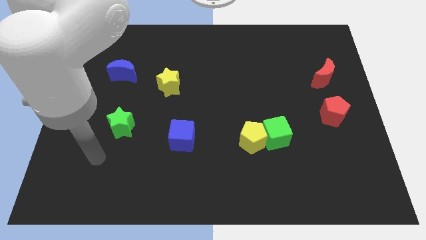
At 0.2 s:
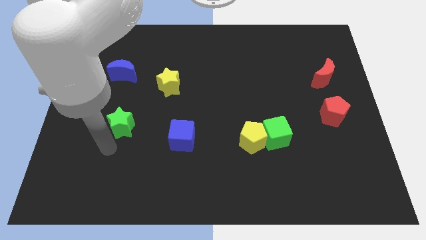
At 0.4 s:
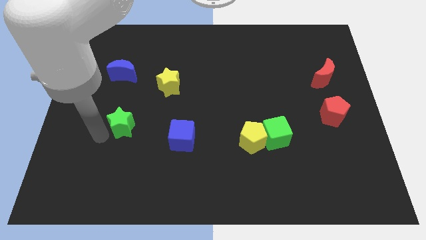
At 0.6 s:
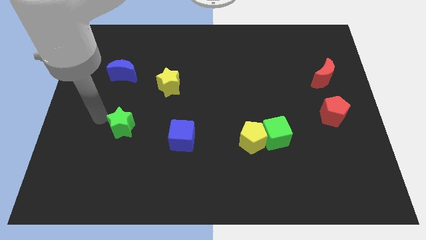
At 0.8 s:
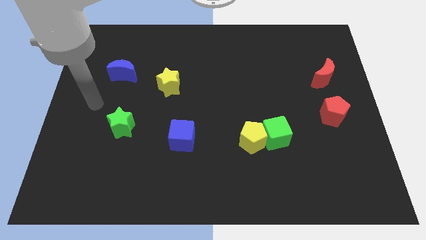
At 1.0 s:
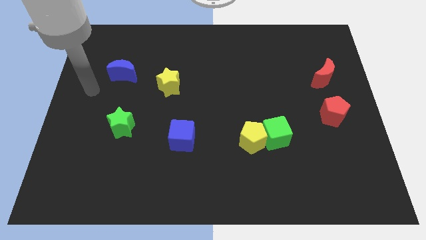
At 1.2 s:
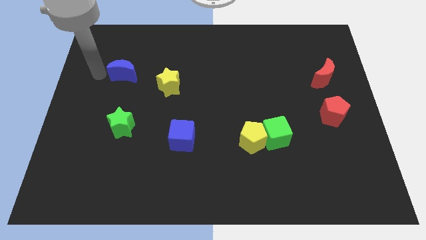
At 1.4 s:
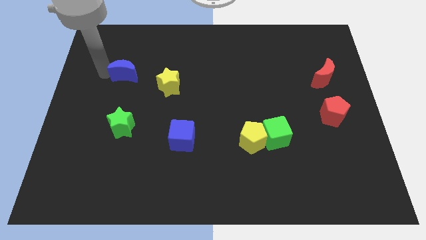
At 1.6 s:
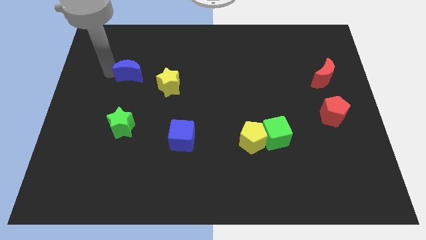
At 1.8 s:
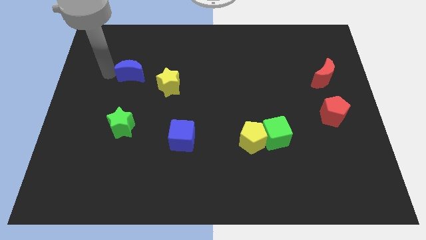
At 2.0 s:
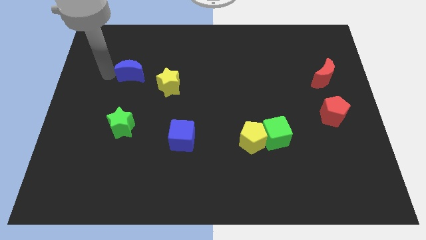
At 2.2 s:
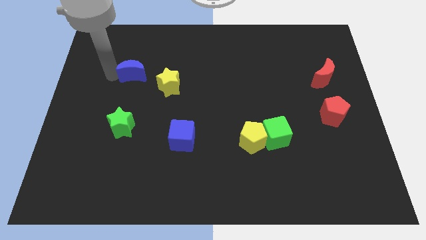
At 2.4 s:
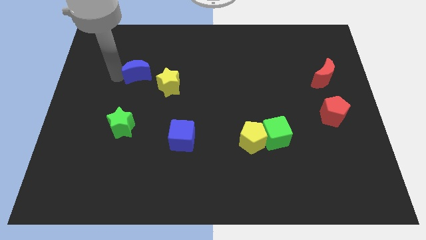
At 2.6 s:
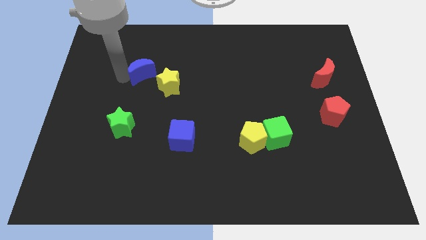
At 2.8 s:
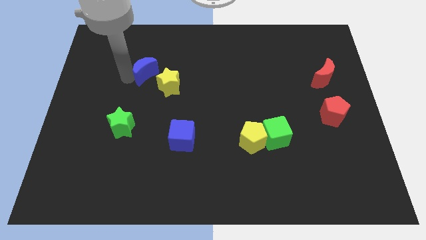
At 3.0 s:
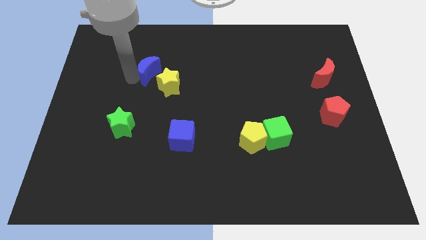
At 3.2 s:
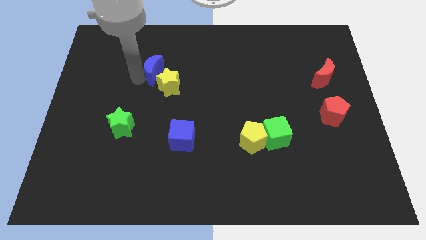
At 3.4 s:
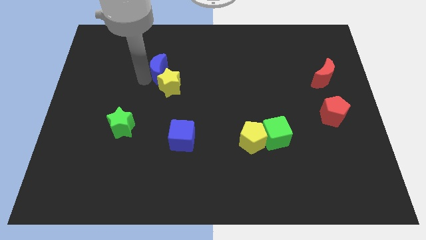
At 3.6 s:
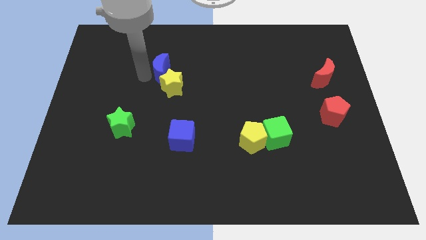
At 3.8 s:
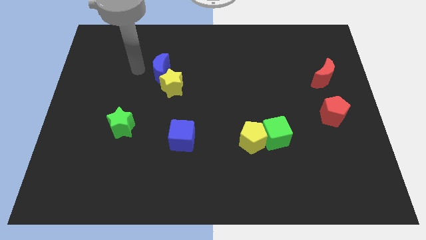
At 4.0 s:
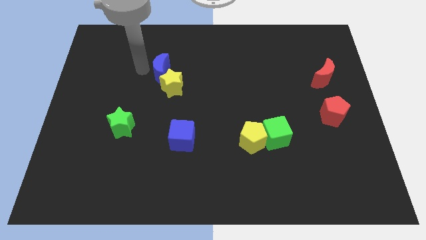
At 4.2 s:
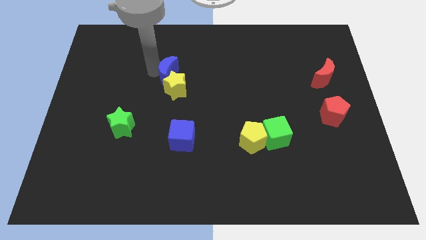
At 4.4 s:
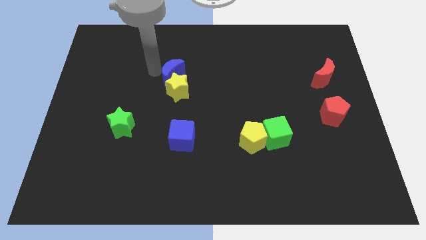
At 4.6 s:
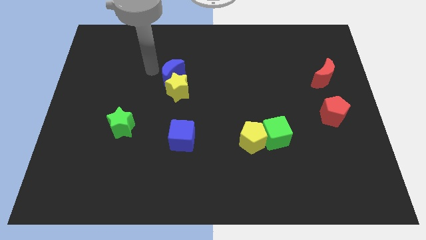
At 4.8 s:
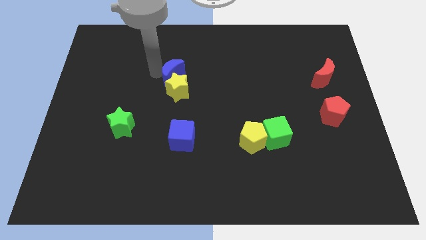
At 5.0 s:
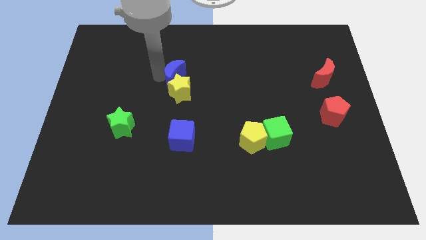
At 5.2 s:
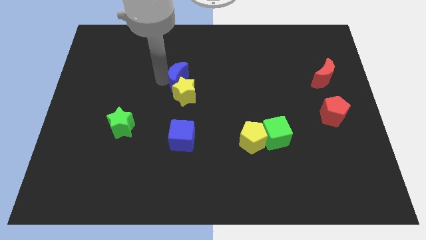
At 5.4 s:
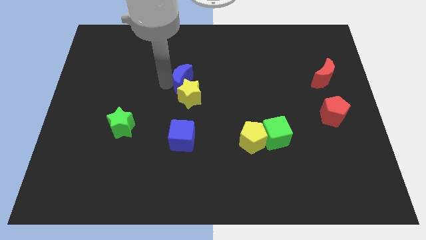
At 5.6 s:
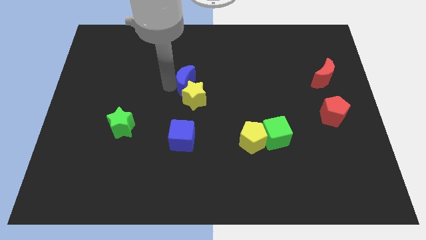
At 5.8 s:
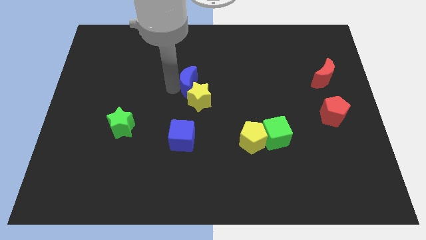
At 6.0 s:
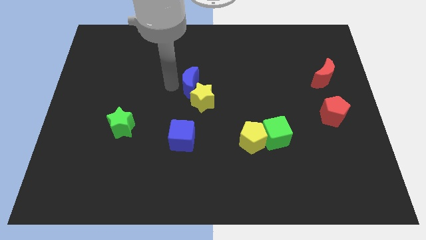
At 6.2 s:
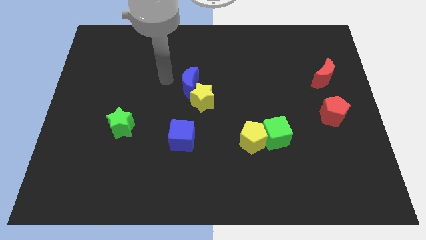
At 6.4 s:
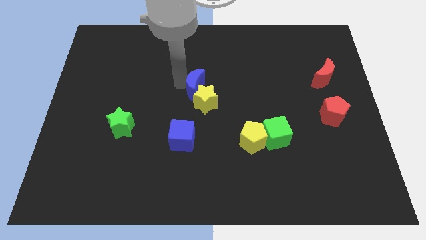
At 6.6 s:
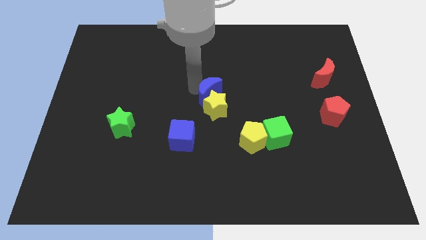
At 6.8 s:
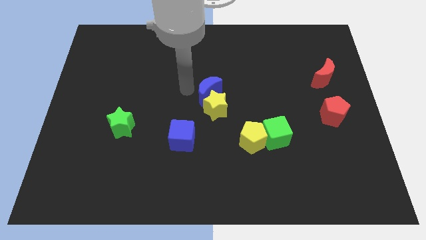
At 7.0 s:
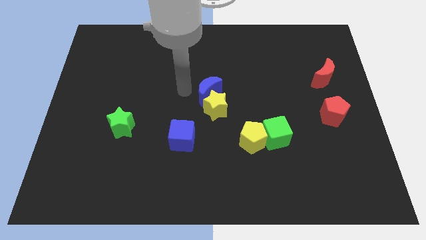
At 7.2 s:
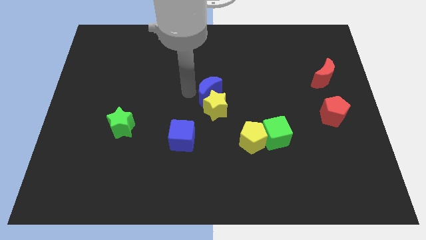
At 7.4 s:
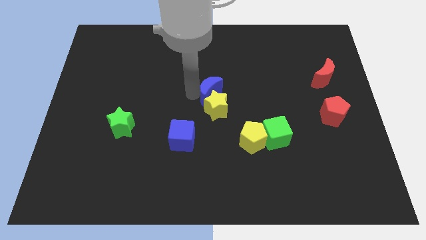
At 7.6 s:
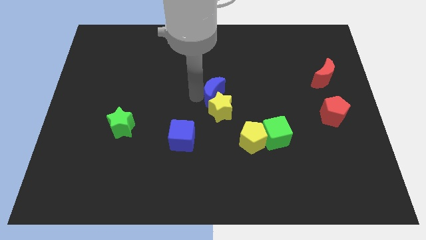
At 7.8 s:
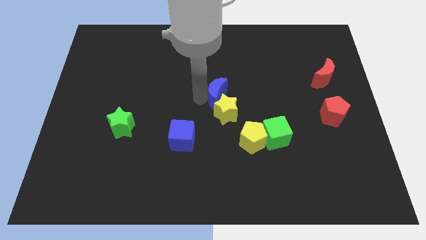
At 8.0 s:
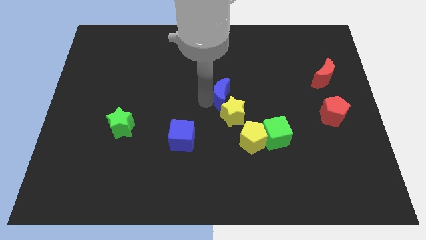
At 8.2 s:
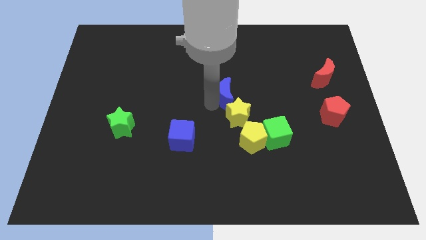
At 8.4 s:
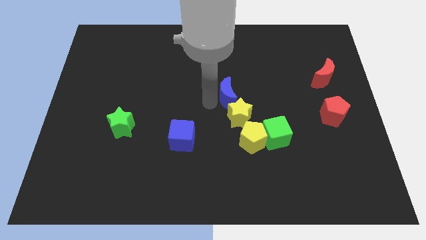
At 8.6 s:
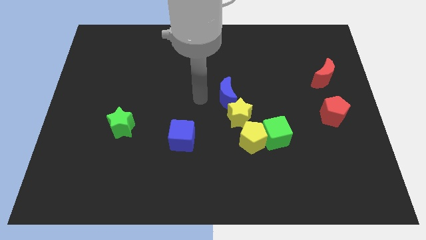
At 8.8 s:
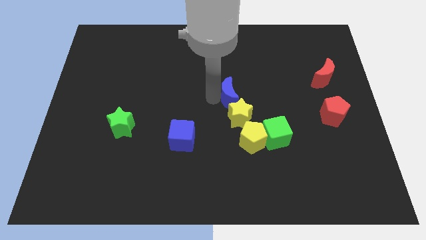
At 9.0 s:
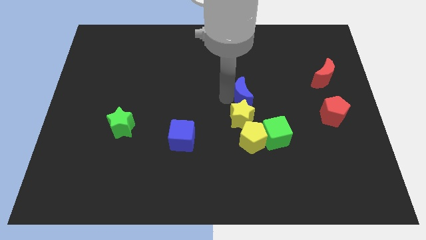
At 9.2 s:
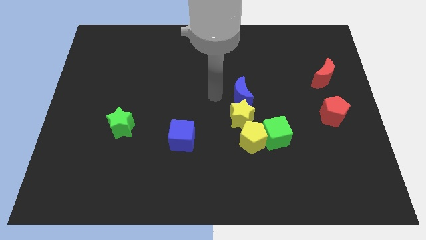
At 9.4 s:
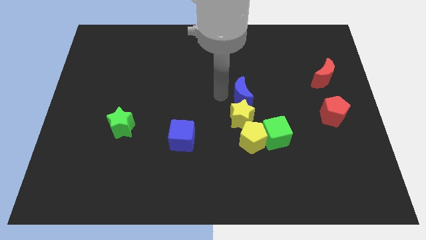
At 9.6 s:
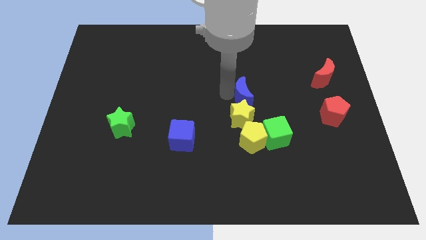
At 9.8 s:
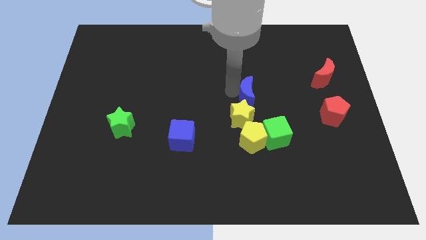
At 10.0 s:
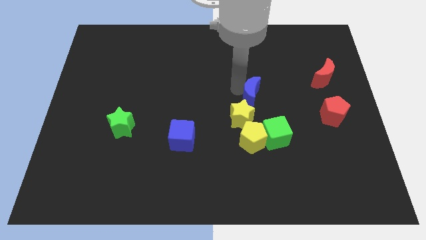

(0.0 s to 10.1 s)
push the blue moon to the top side of the green cube

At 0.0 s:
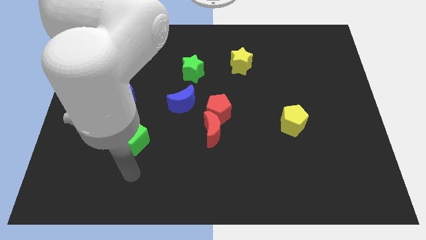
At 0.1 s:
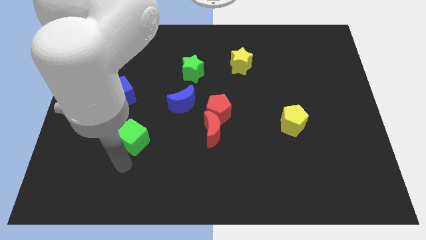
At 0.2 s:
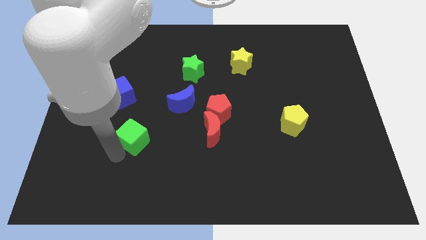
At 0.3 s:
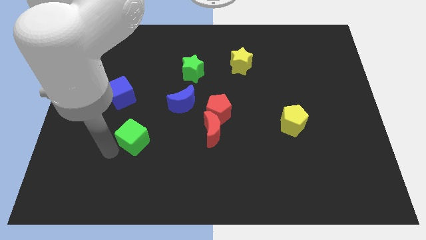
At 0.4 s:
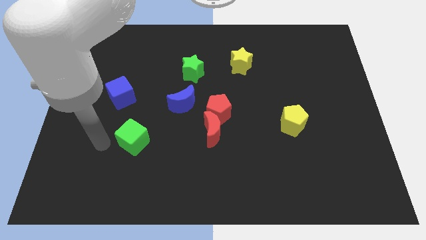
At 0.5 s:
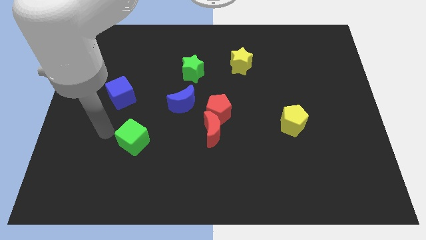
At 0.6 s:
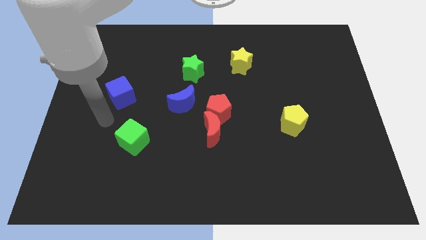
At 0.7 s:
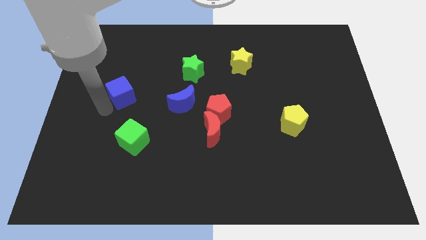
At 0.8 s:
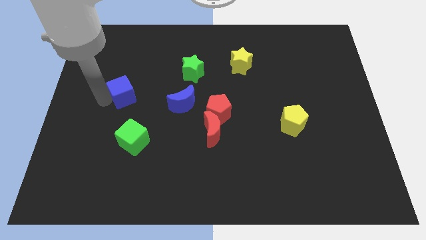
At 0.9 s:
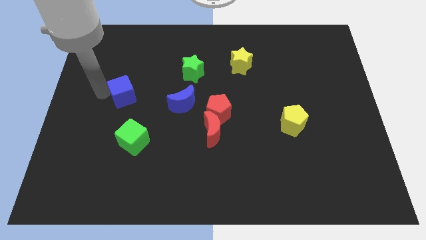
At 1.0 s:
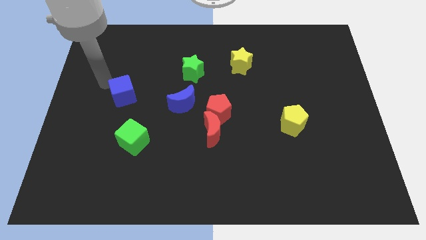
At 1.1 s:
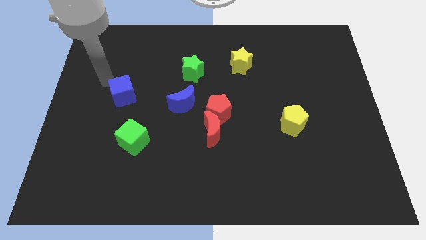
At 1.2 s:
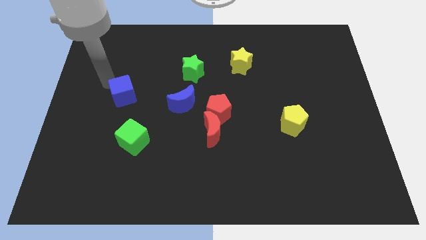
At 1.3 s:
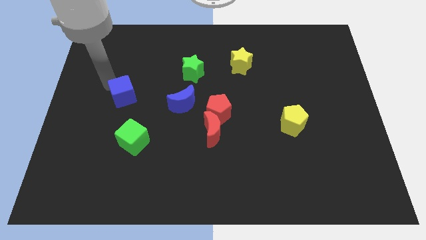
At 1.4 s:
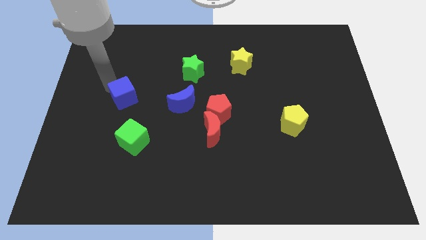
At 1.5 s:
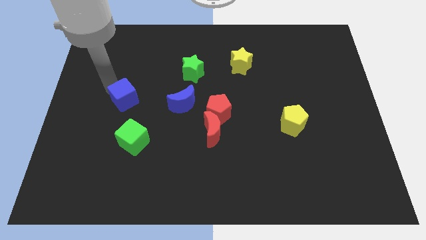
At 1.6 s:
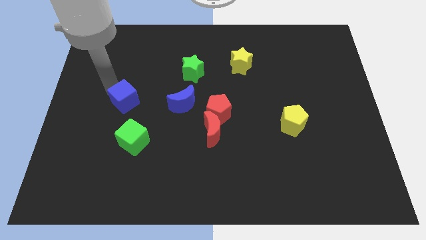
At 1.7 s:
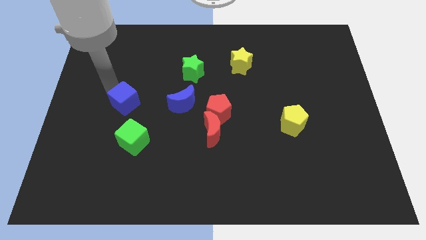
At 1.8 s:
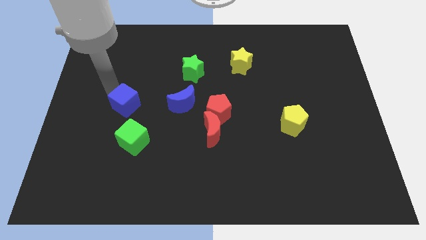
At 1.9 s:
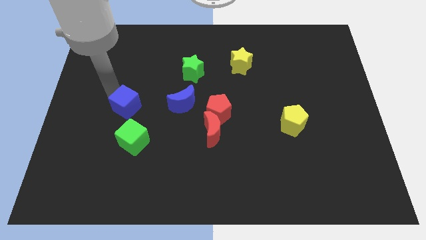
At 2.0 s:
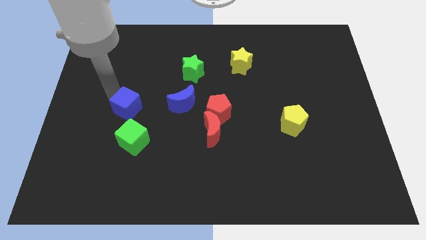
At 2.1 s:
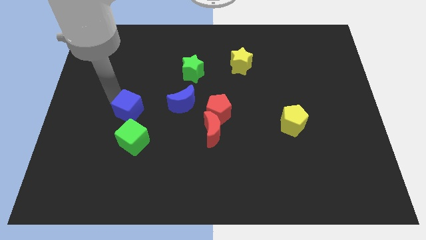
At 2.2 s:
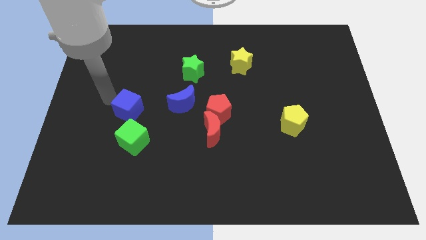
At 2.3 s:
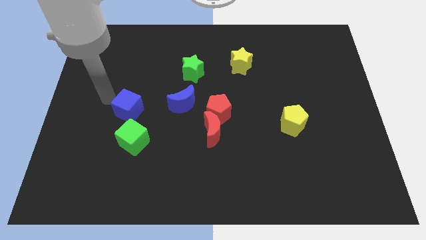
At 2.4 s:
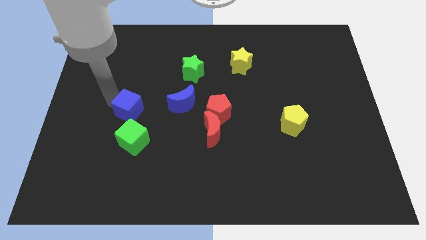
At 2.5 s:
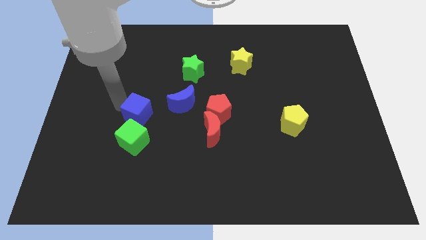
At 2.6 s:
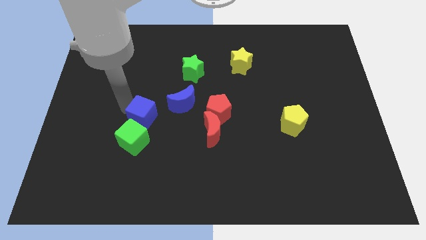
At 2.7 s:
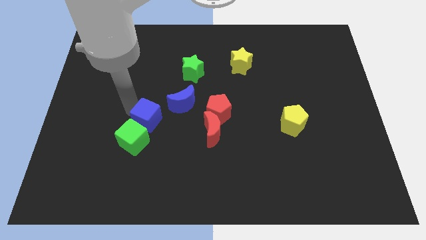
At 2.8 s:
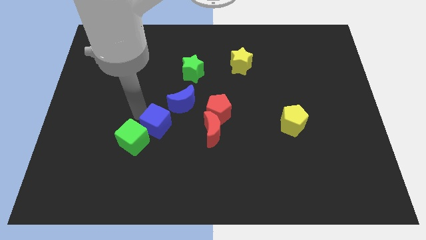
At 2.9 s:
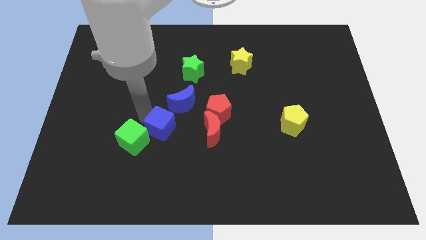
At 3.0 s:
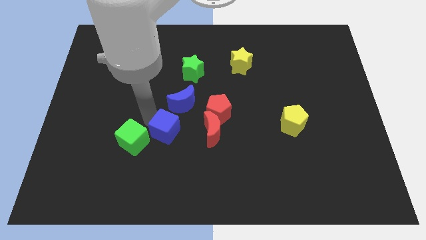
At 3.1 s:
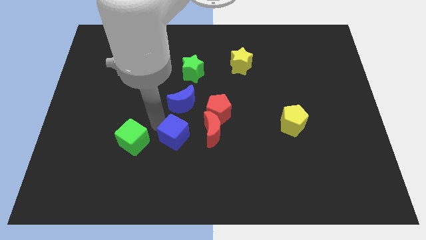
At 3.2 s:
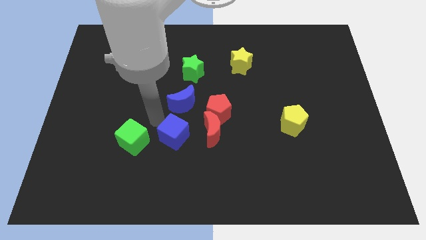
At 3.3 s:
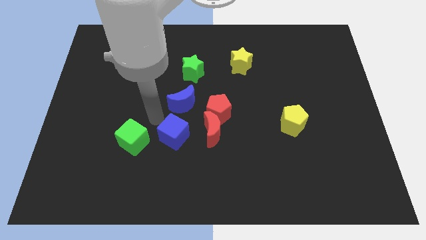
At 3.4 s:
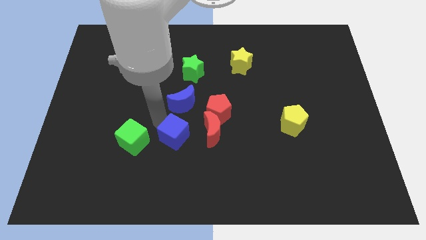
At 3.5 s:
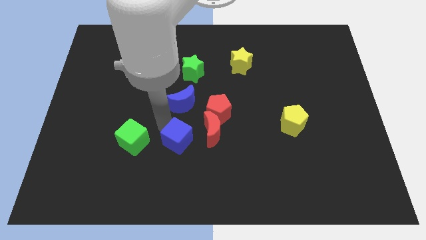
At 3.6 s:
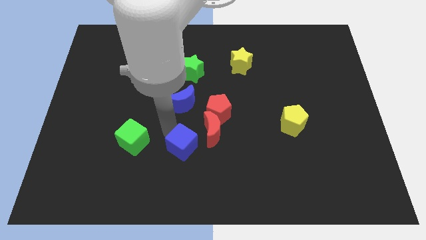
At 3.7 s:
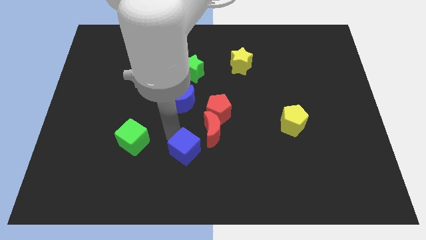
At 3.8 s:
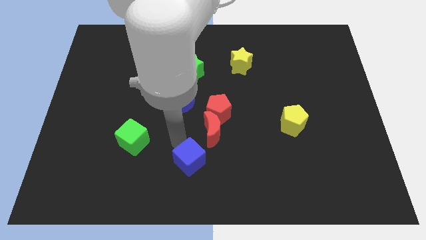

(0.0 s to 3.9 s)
push the blue cube to the bottom of the red moon
